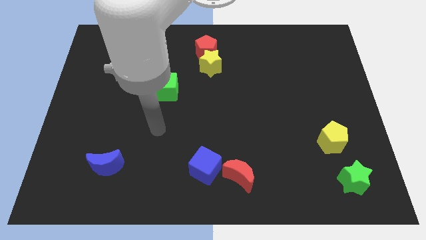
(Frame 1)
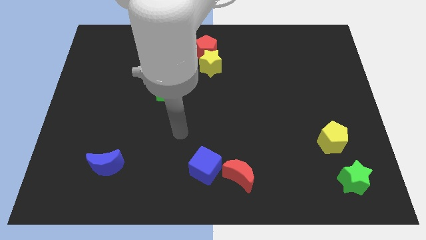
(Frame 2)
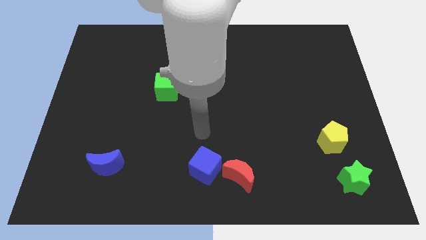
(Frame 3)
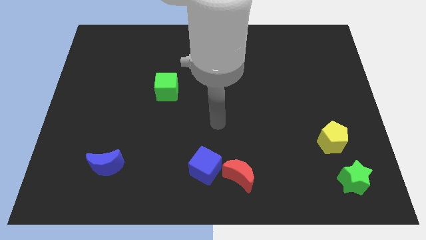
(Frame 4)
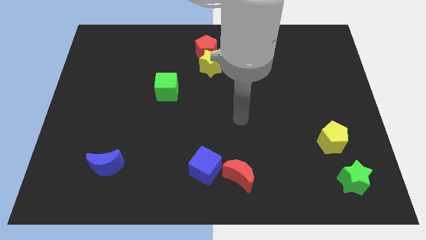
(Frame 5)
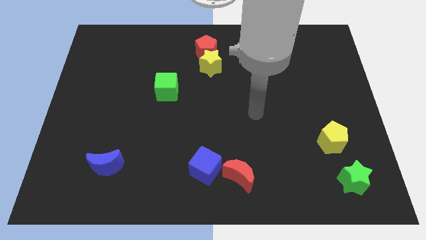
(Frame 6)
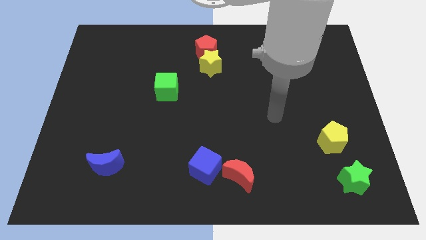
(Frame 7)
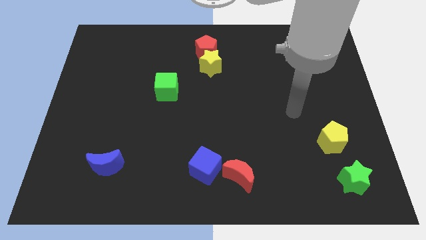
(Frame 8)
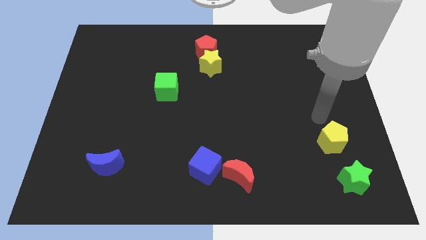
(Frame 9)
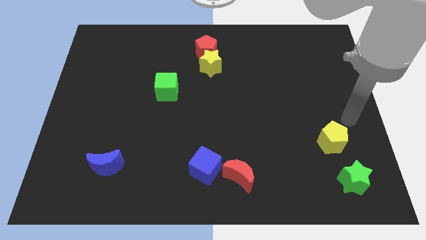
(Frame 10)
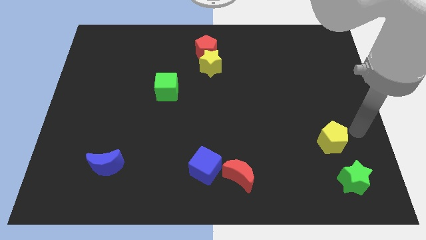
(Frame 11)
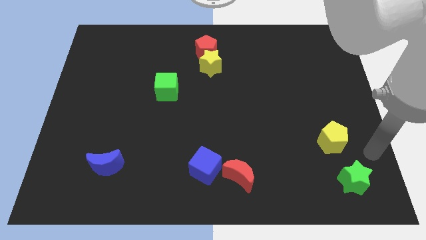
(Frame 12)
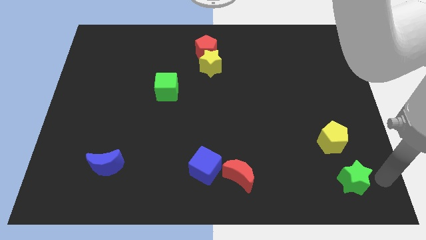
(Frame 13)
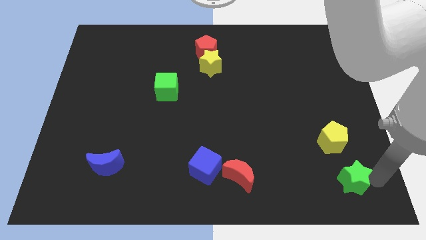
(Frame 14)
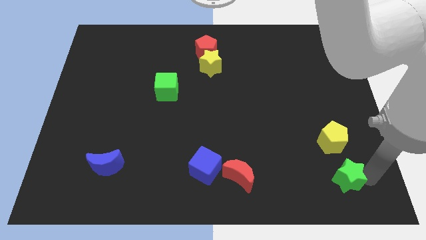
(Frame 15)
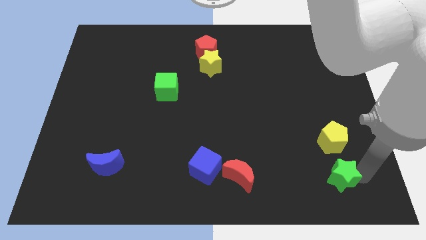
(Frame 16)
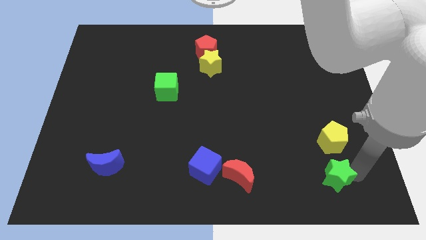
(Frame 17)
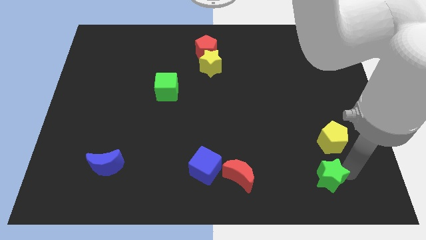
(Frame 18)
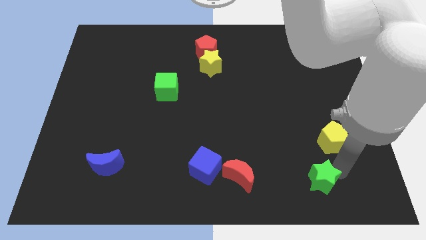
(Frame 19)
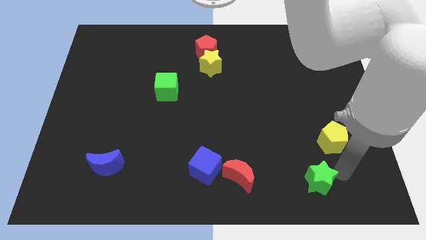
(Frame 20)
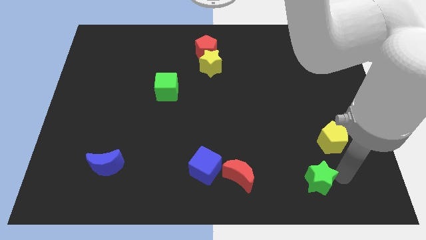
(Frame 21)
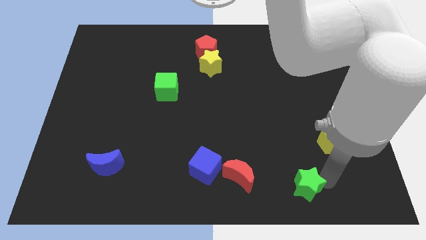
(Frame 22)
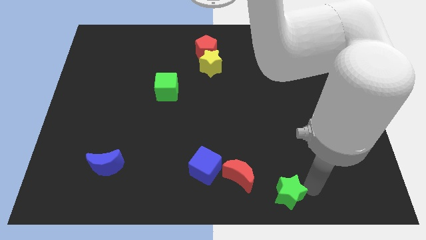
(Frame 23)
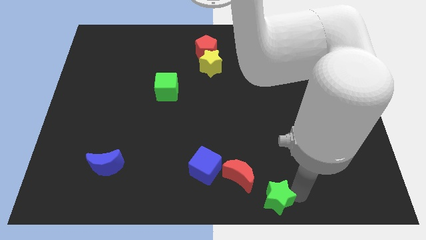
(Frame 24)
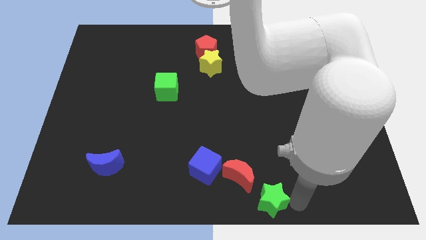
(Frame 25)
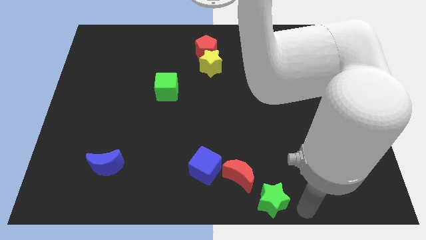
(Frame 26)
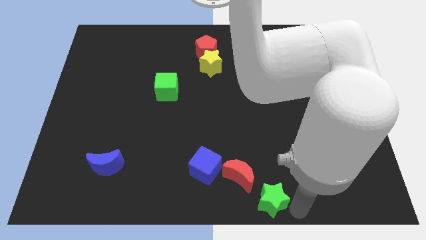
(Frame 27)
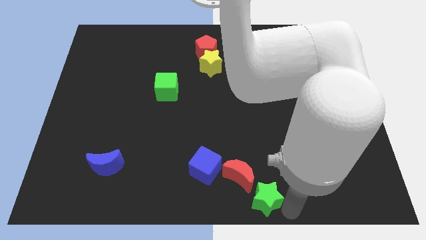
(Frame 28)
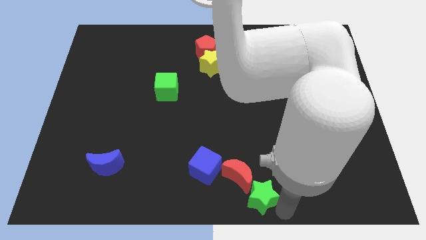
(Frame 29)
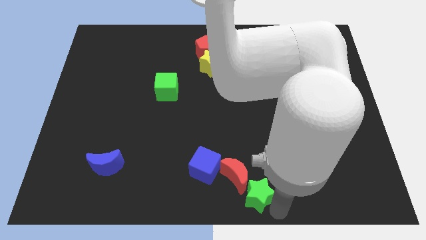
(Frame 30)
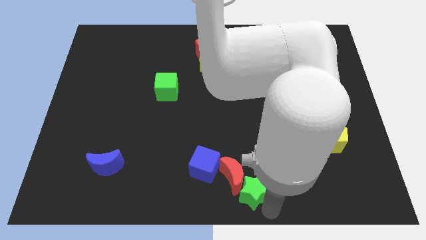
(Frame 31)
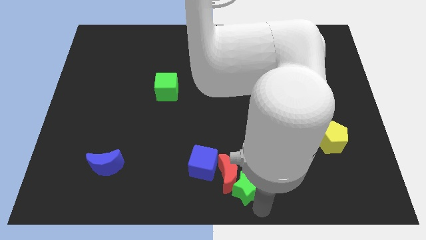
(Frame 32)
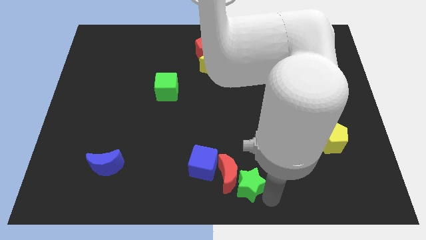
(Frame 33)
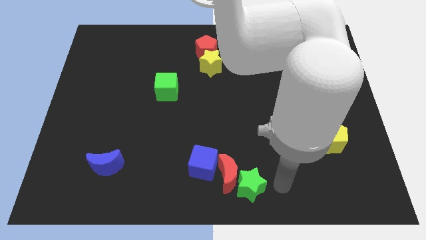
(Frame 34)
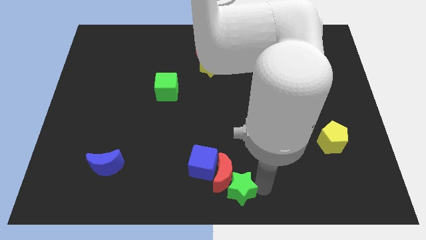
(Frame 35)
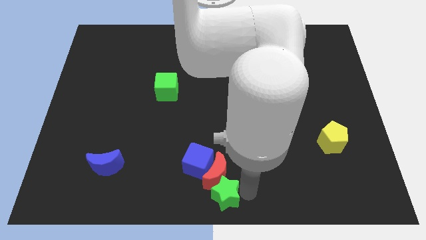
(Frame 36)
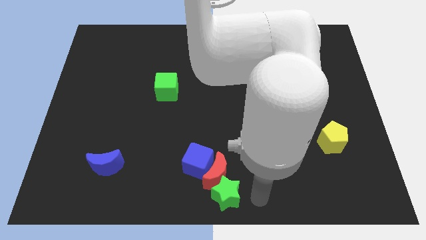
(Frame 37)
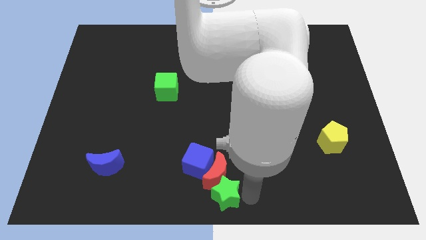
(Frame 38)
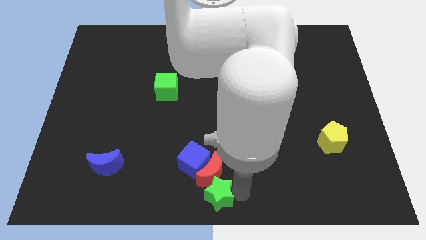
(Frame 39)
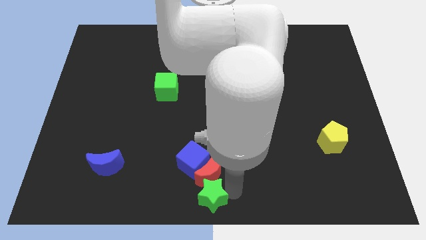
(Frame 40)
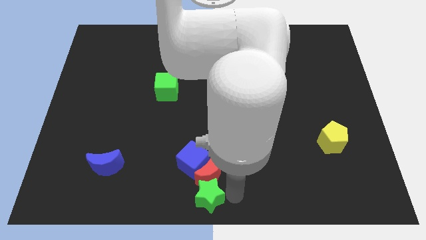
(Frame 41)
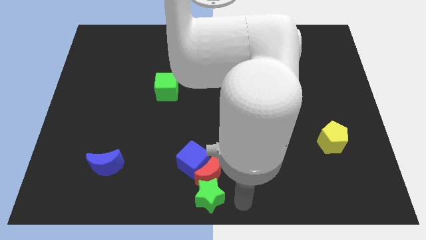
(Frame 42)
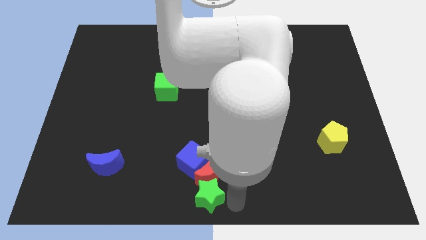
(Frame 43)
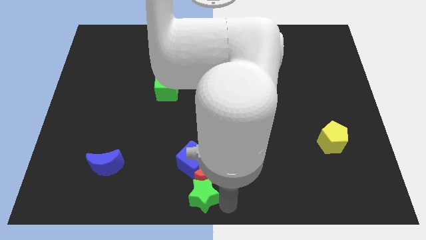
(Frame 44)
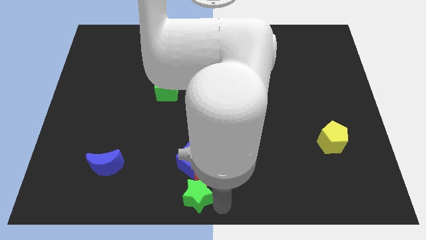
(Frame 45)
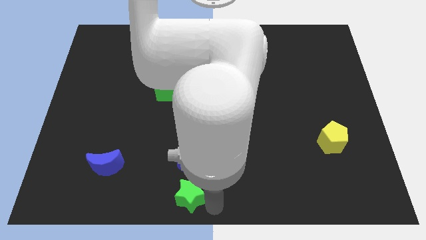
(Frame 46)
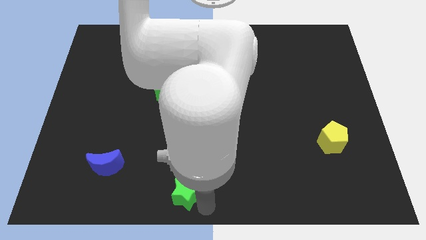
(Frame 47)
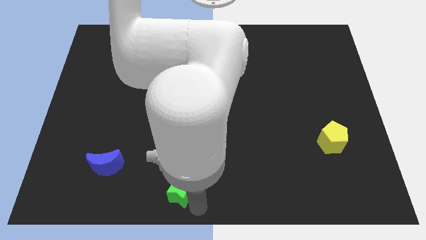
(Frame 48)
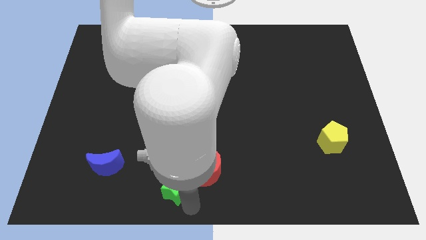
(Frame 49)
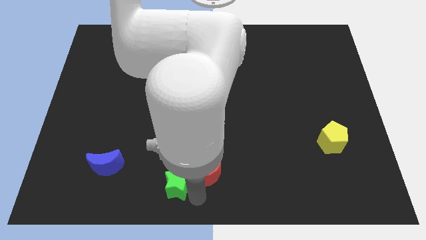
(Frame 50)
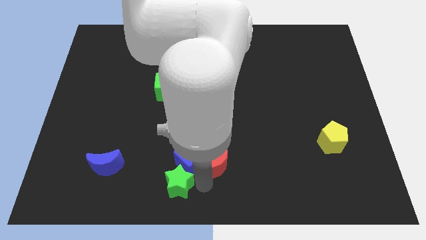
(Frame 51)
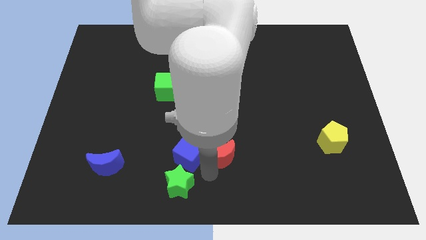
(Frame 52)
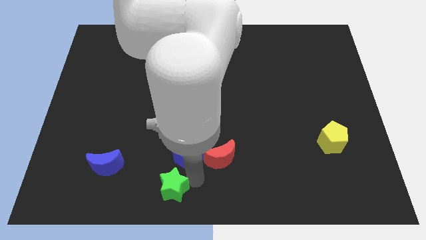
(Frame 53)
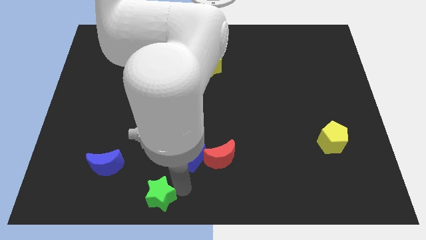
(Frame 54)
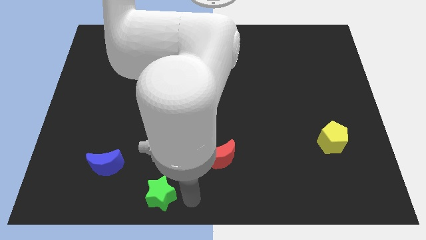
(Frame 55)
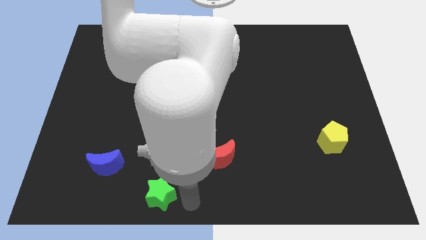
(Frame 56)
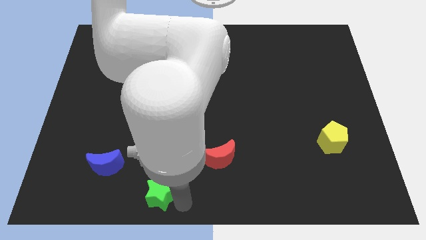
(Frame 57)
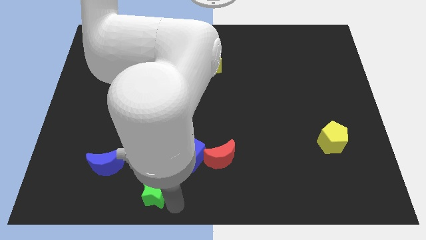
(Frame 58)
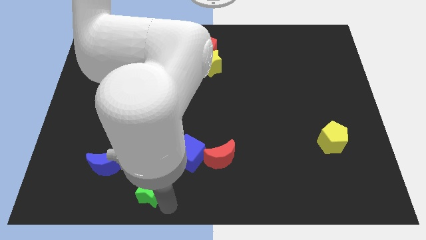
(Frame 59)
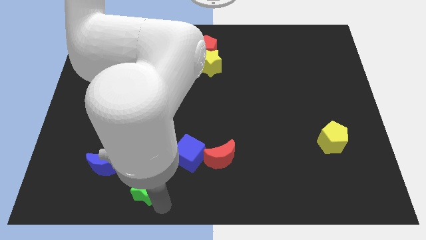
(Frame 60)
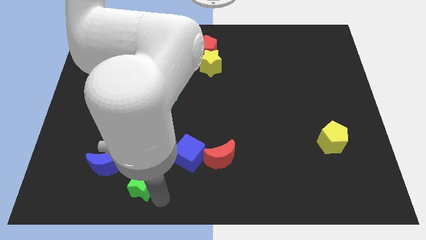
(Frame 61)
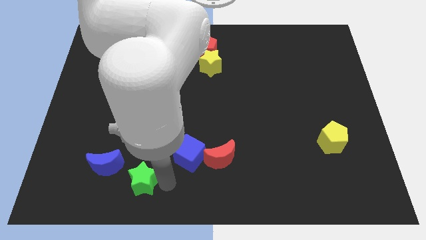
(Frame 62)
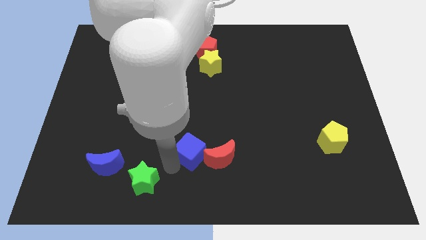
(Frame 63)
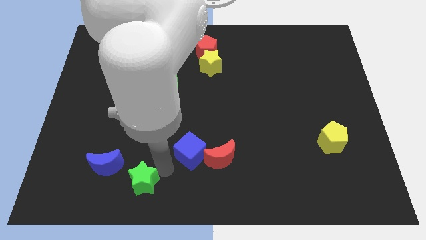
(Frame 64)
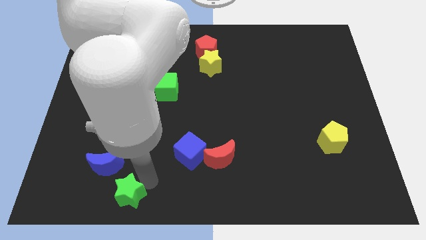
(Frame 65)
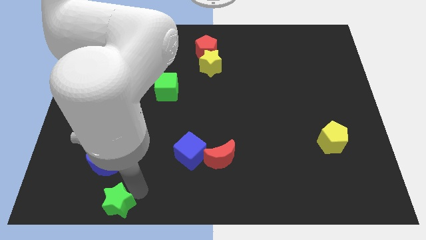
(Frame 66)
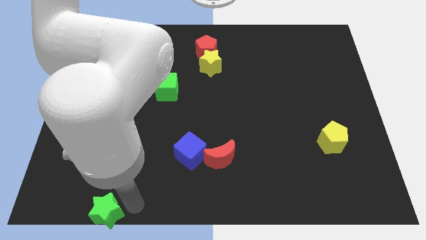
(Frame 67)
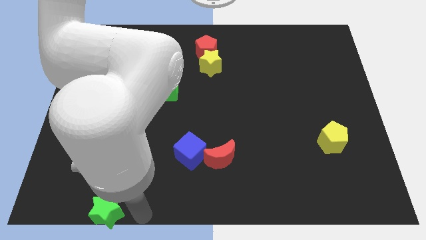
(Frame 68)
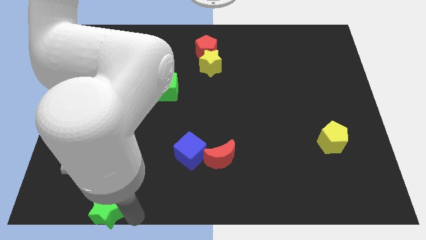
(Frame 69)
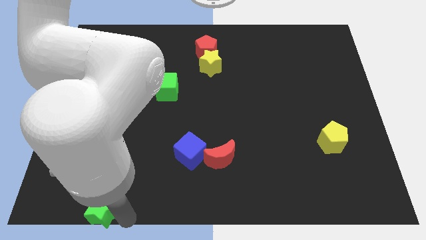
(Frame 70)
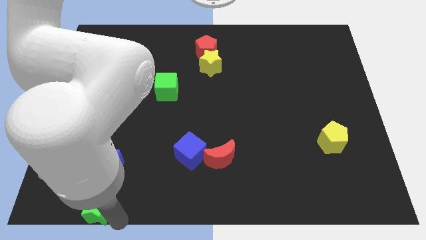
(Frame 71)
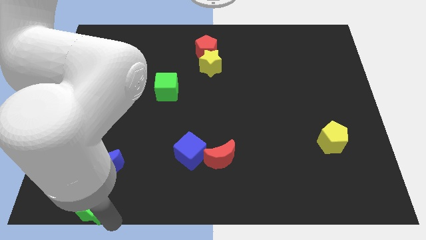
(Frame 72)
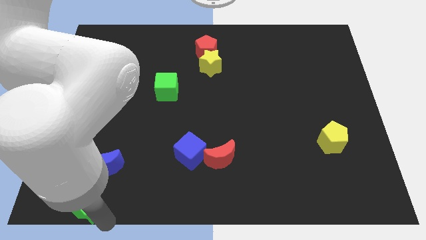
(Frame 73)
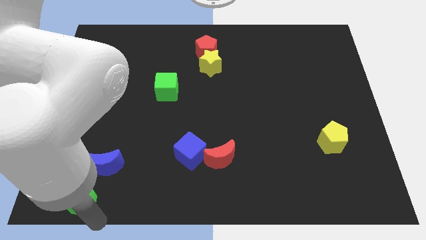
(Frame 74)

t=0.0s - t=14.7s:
slide the green star to the lower left corner
